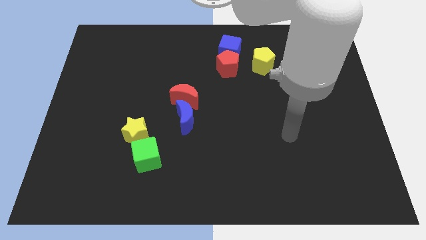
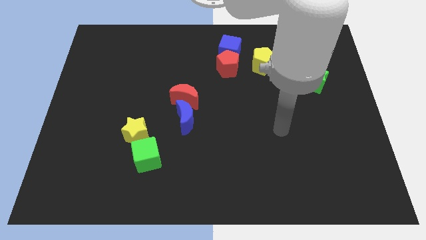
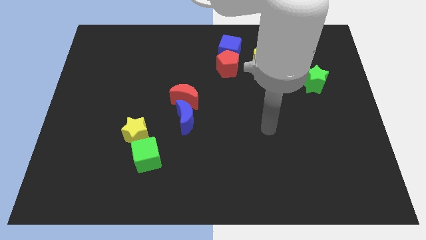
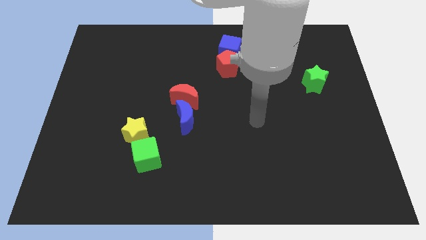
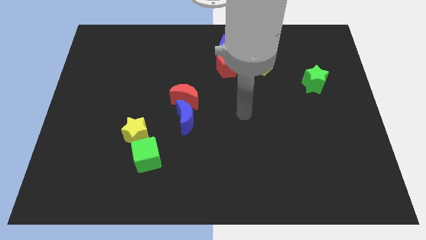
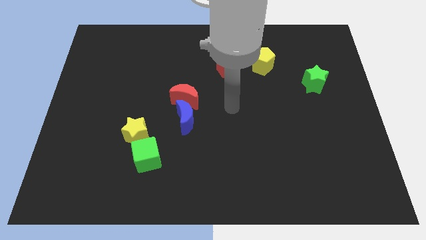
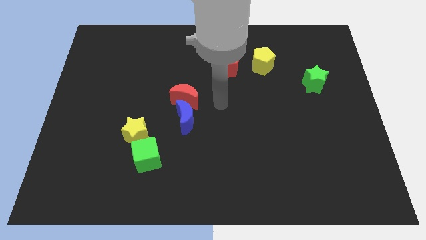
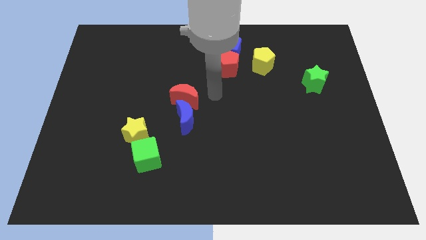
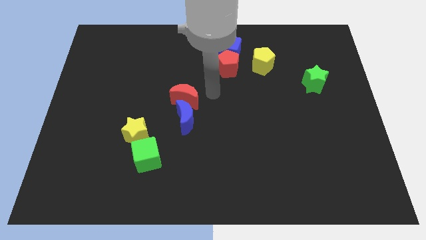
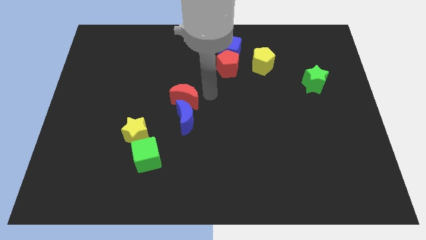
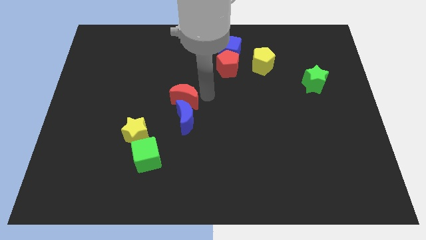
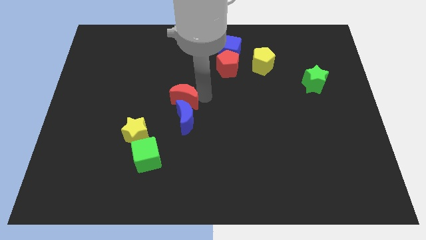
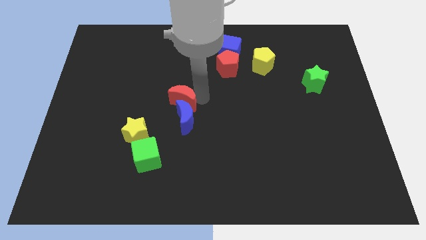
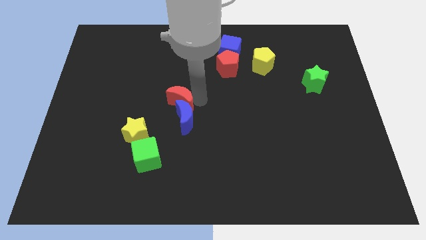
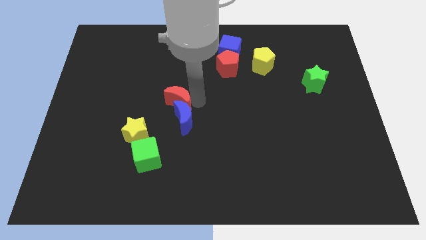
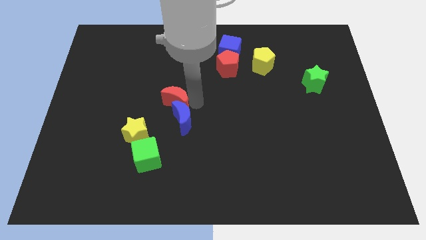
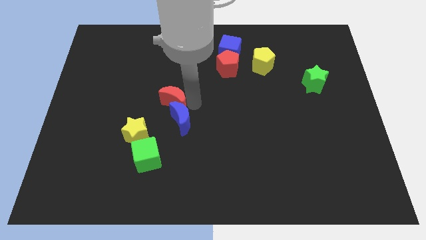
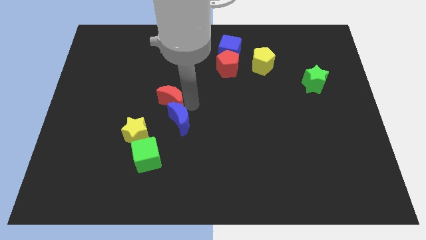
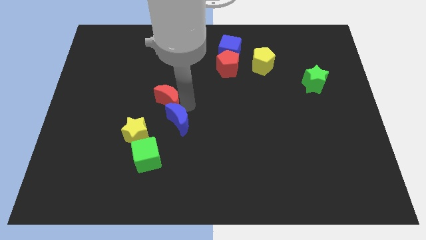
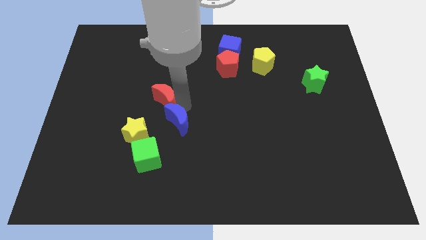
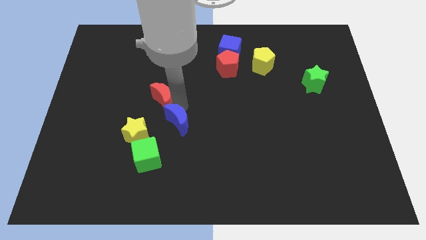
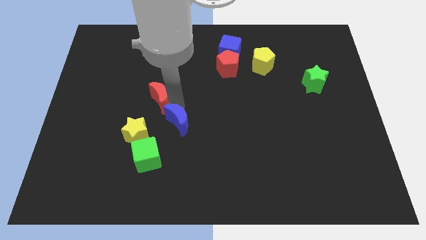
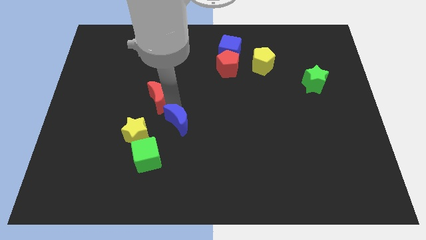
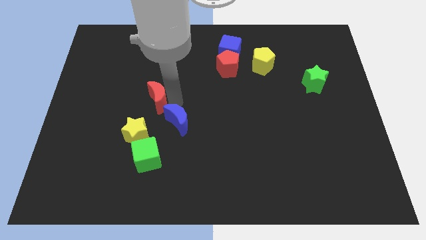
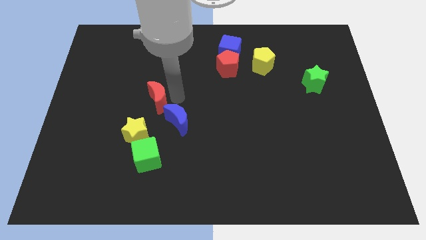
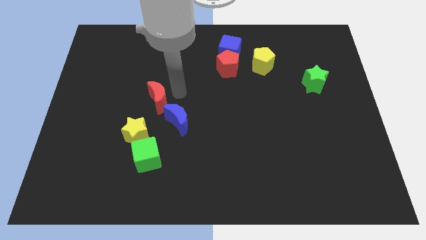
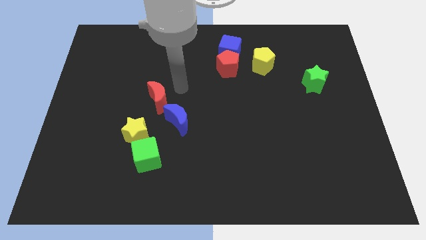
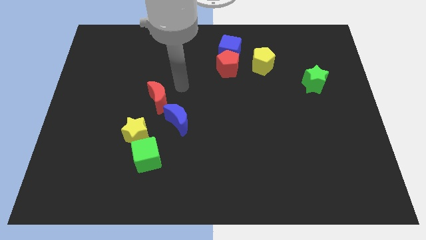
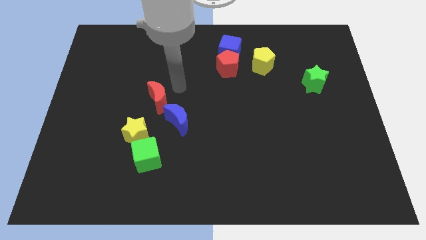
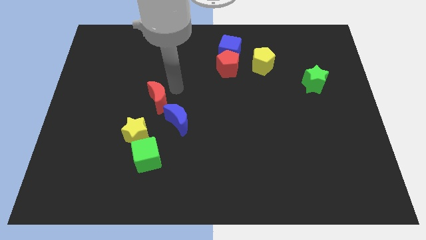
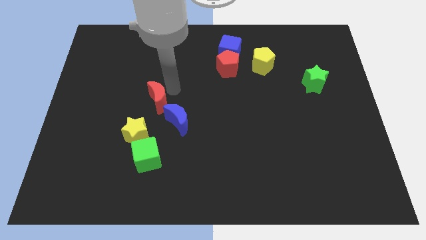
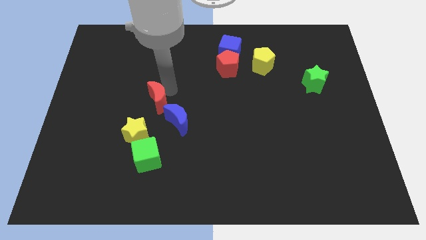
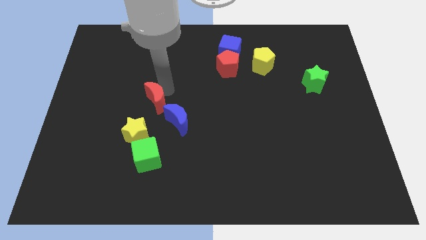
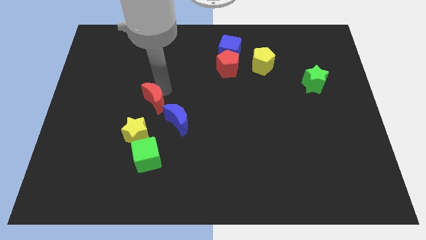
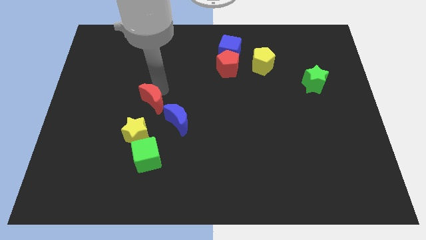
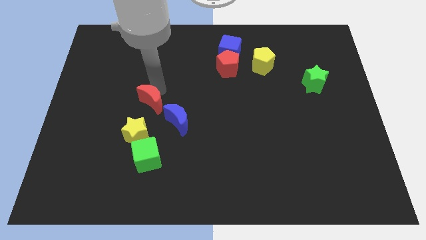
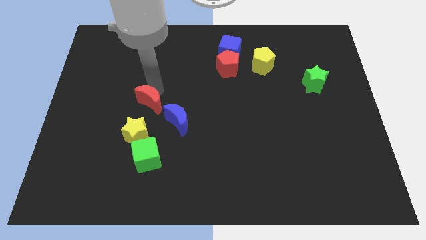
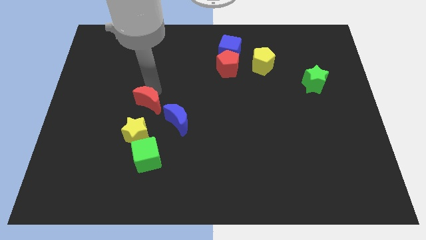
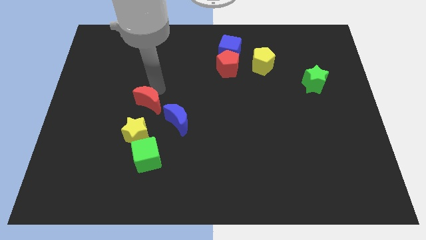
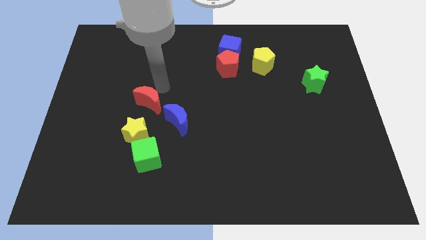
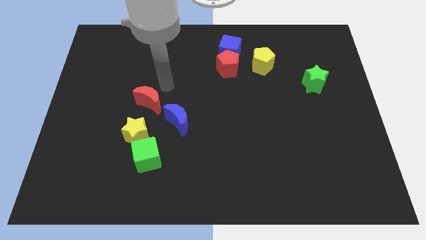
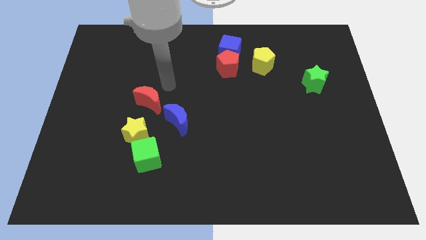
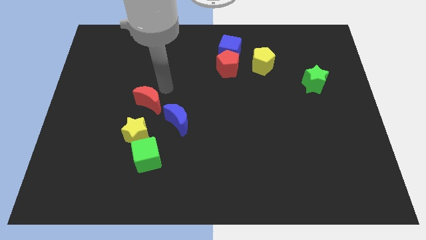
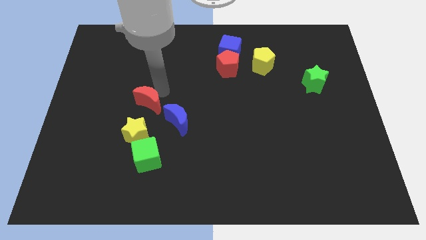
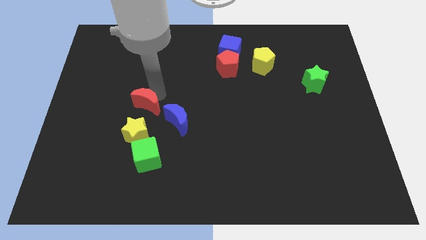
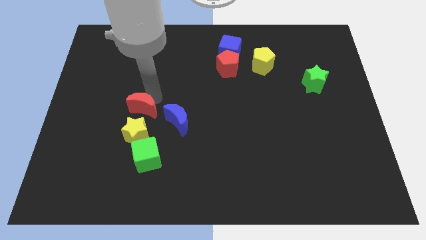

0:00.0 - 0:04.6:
slightly slide the red moon diagonally down and to the left

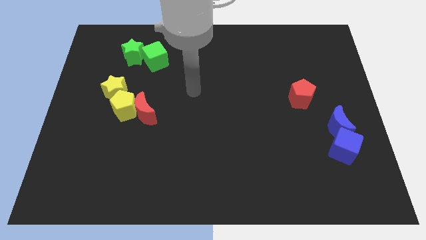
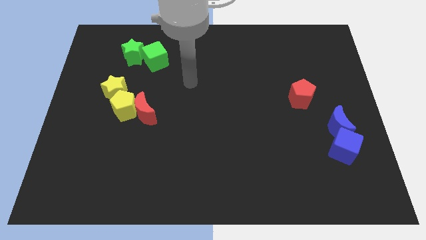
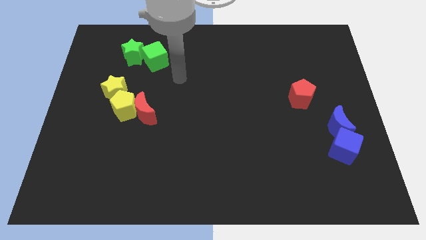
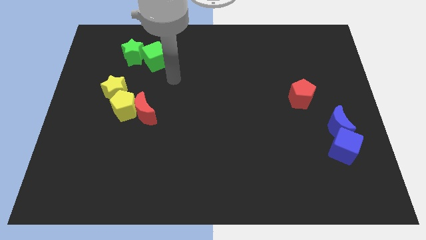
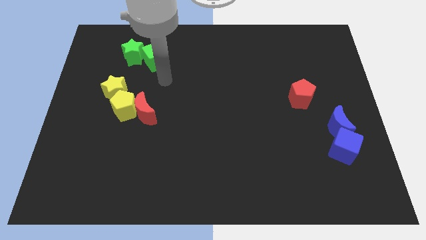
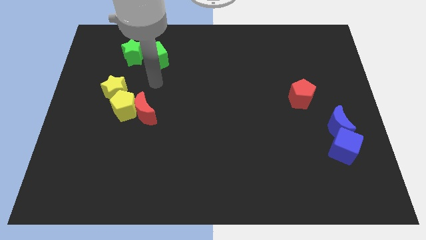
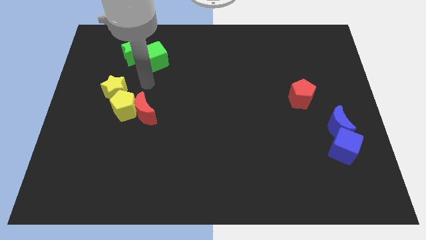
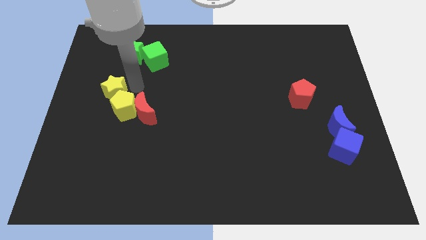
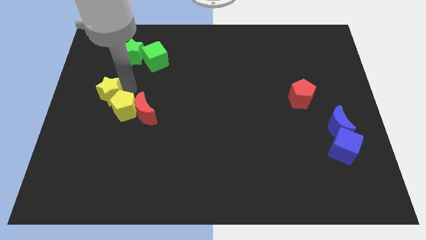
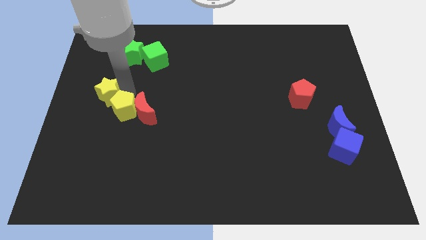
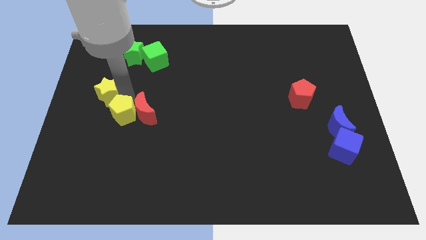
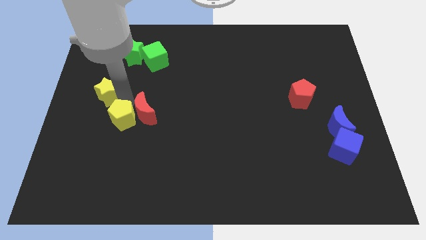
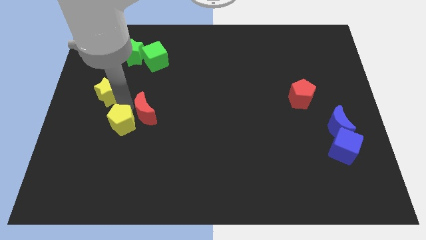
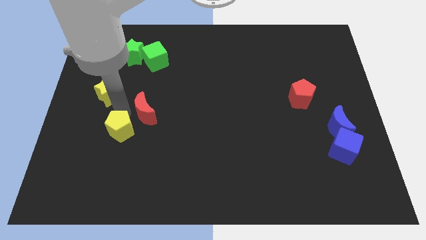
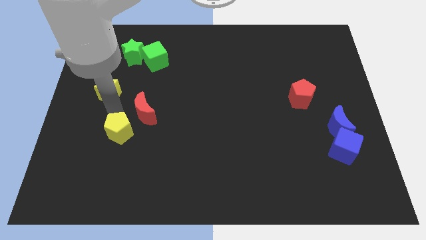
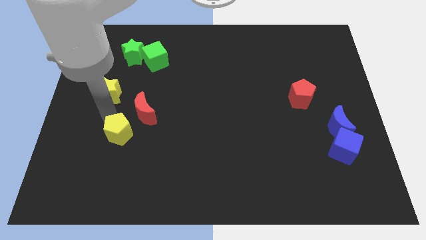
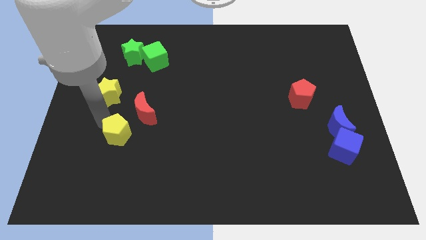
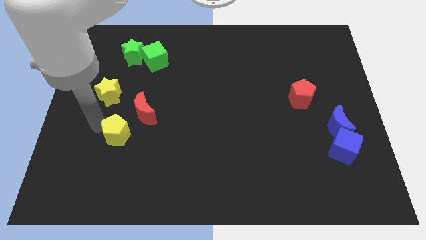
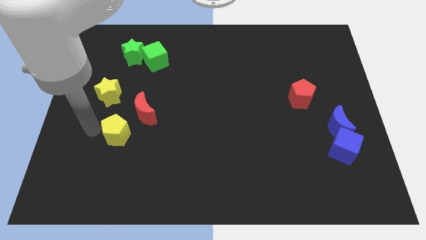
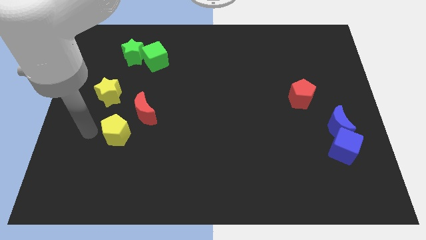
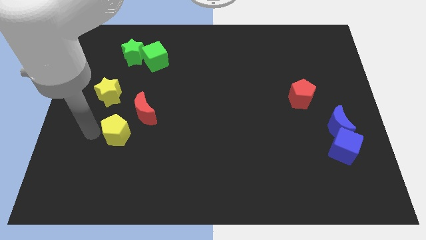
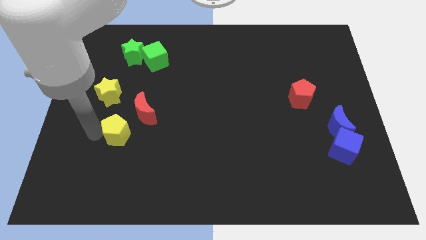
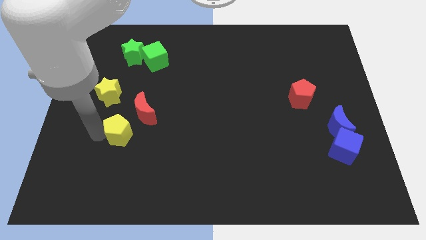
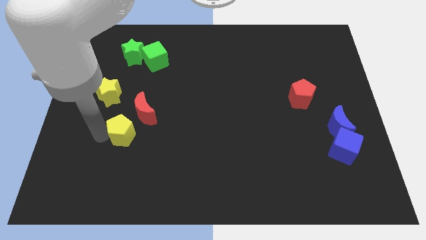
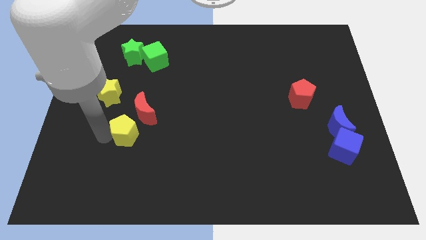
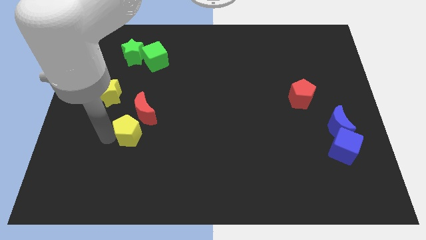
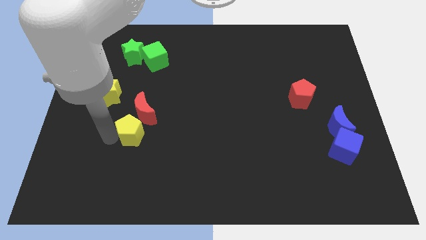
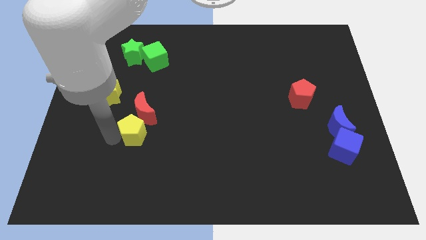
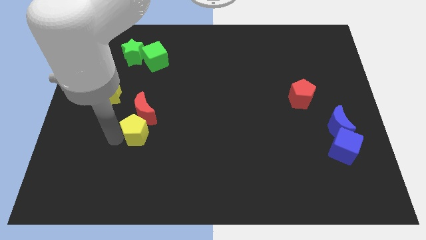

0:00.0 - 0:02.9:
push the yellow pentagon a little downwards and right diagonally

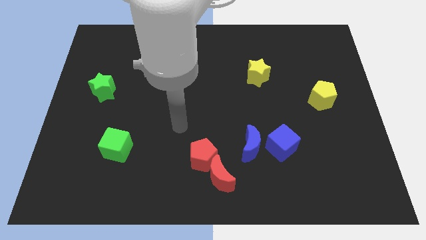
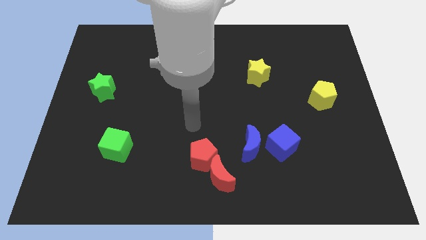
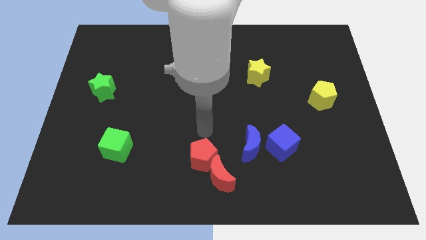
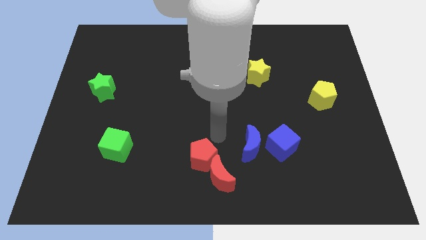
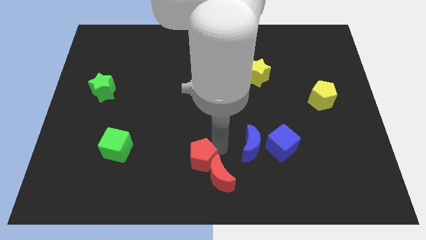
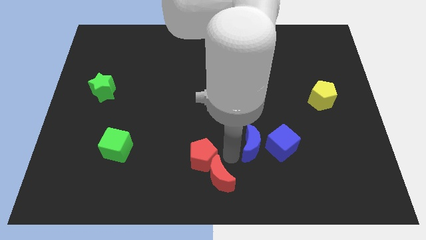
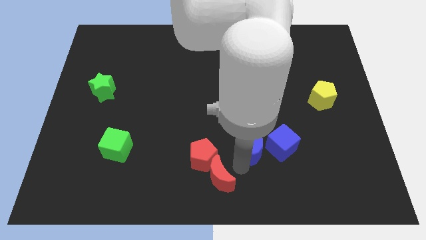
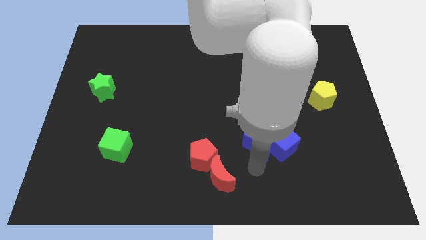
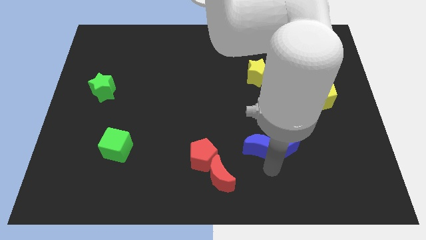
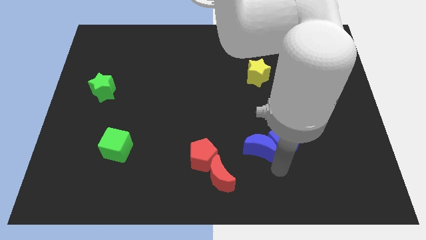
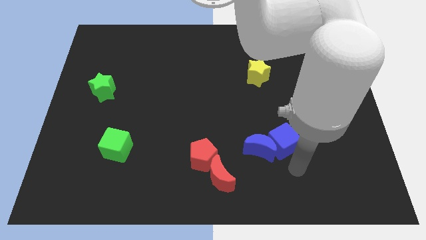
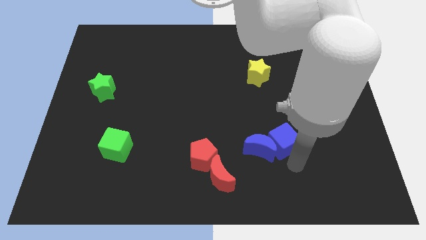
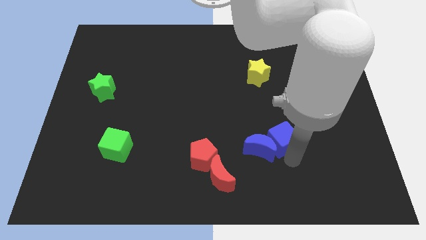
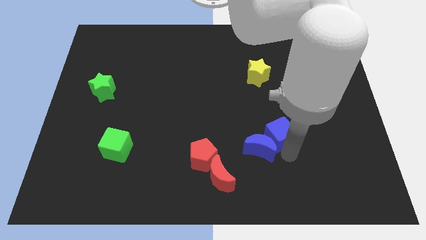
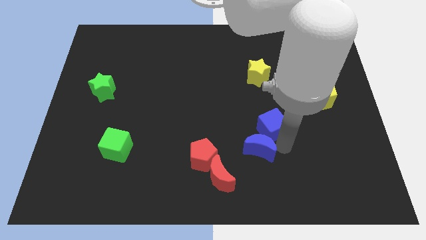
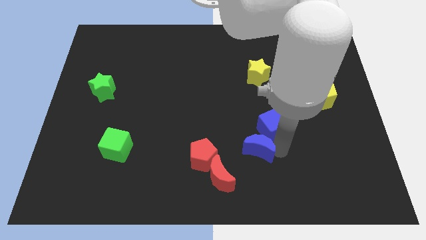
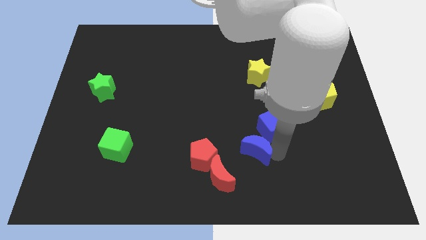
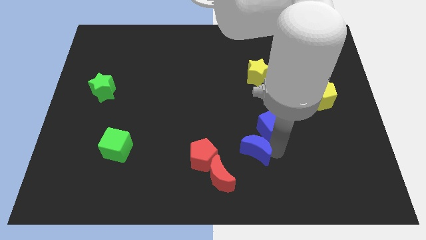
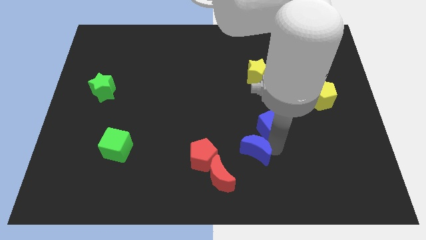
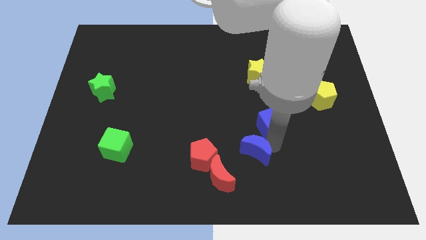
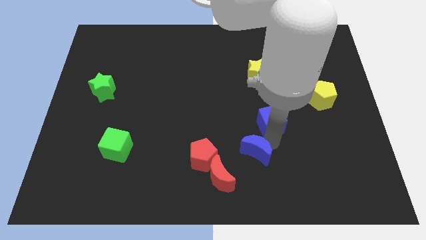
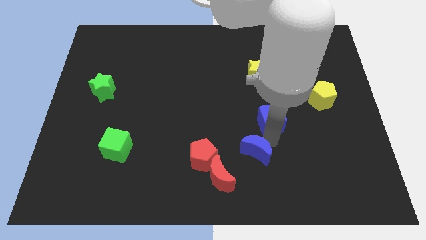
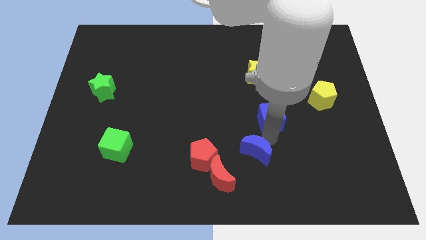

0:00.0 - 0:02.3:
push the blue cube upwards a little
